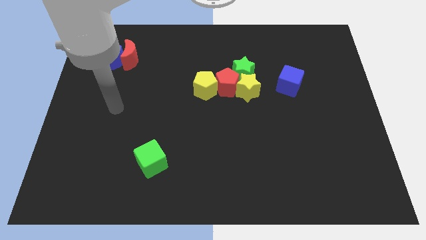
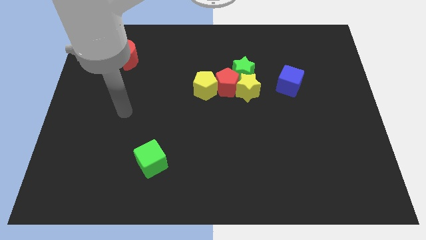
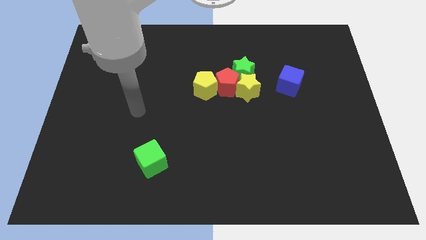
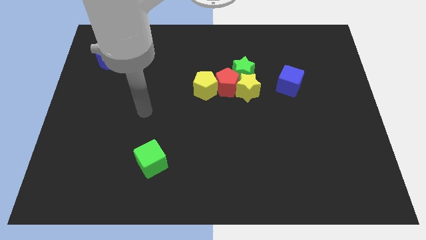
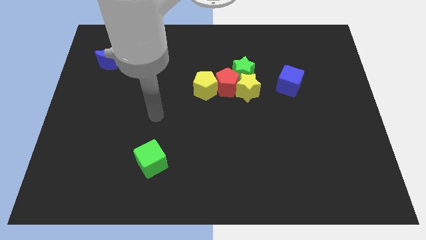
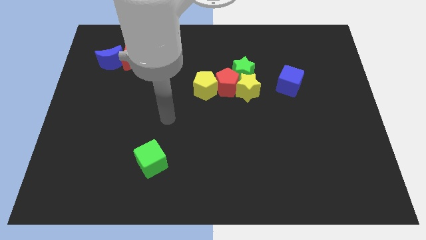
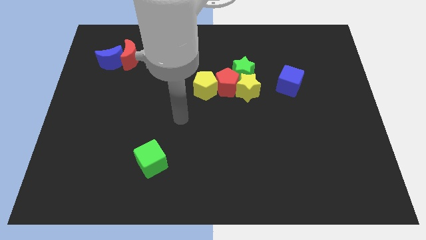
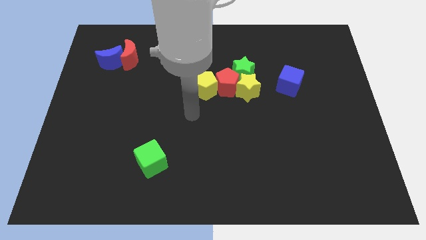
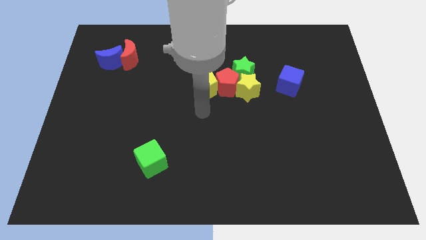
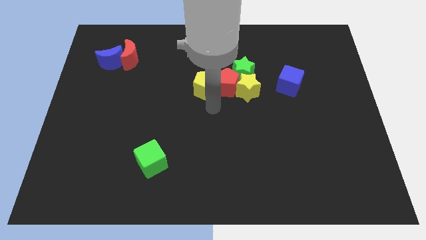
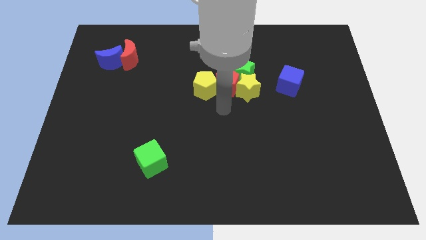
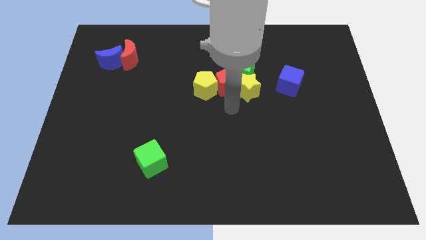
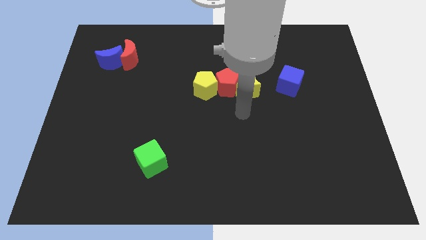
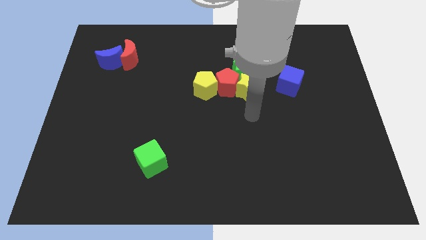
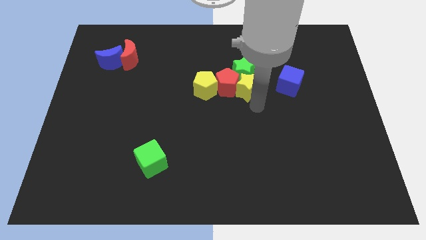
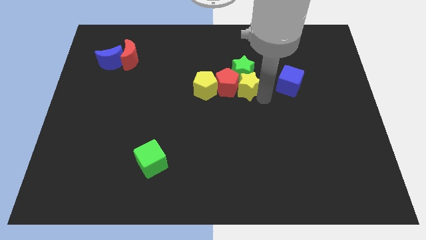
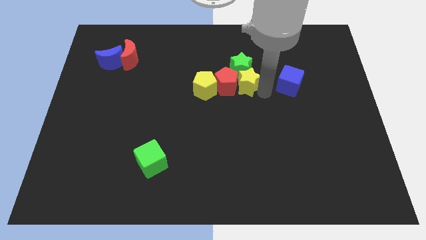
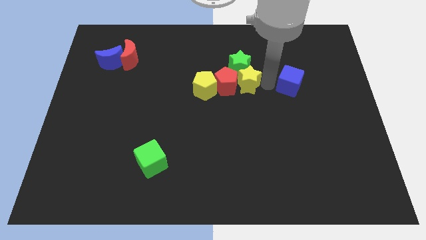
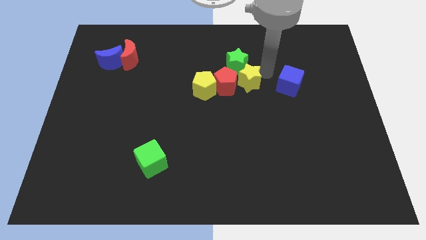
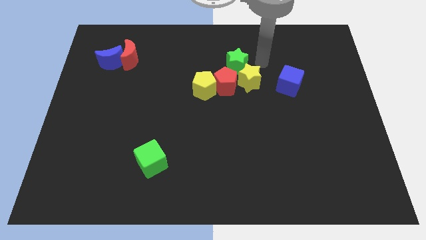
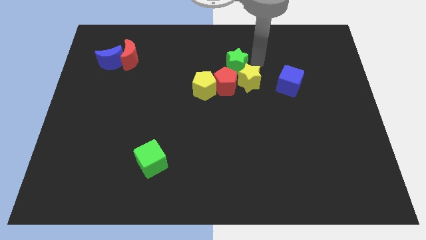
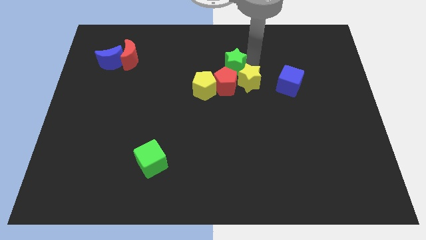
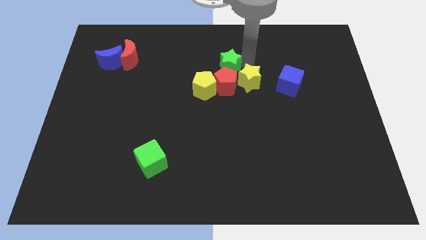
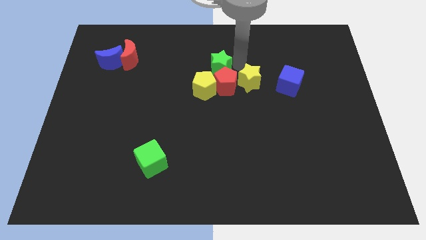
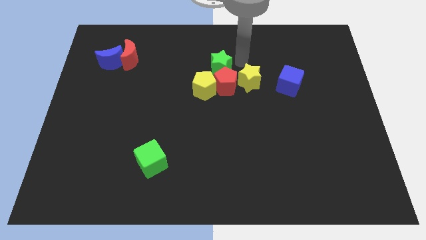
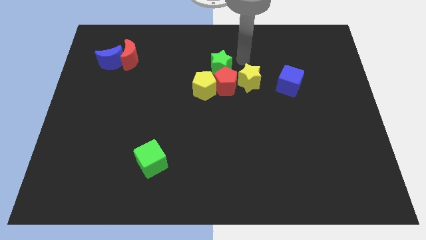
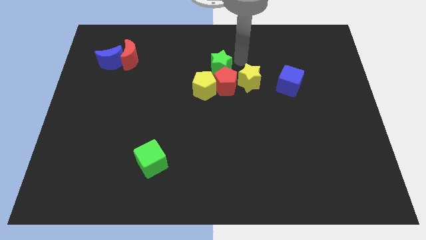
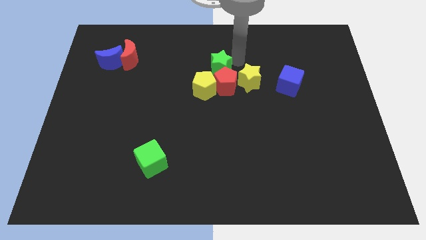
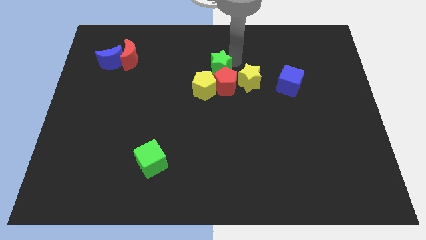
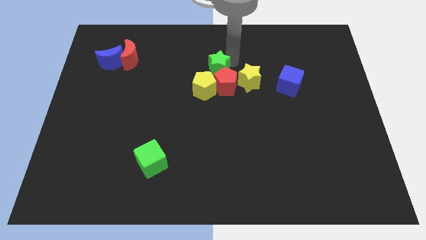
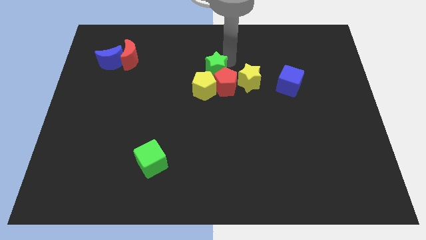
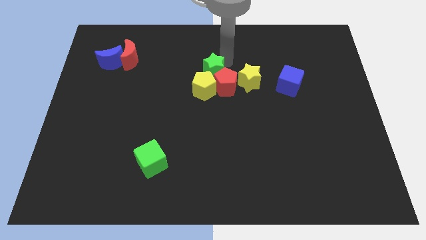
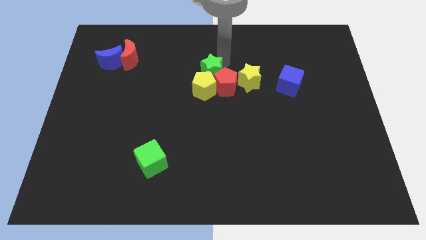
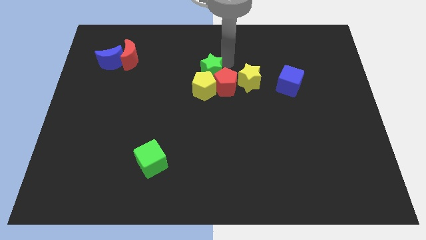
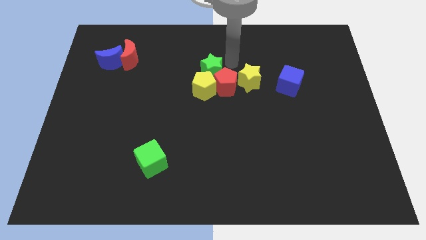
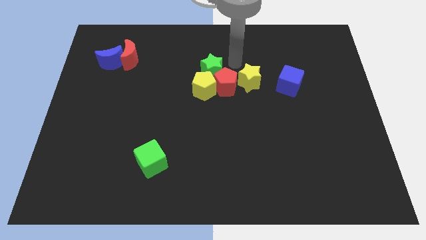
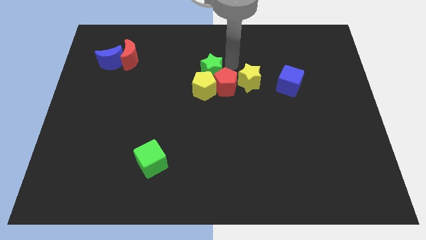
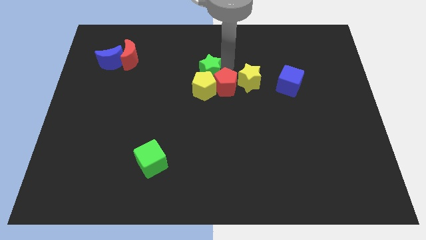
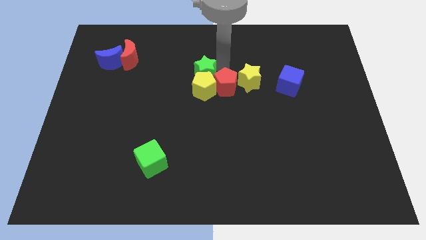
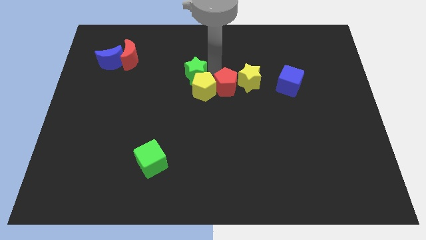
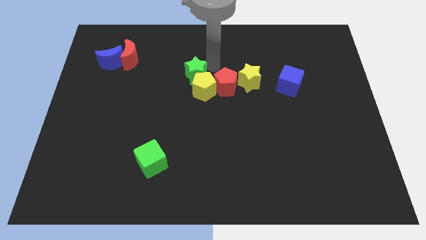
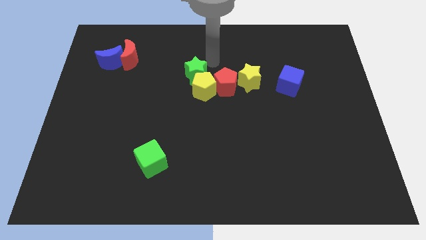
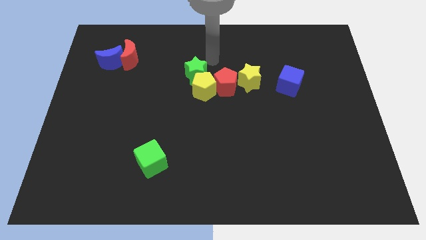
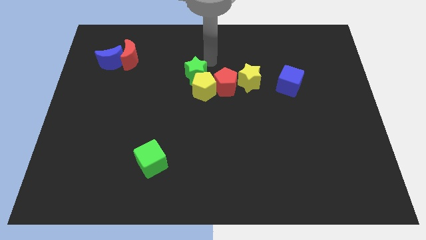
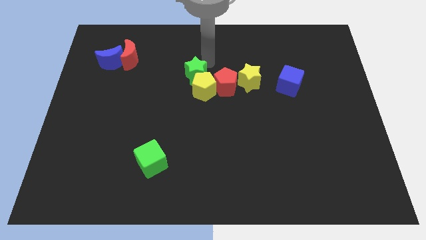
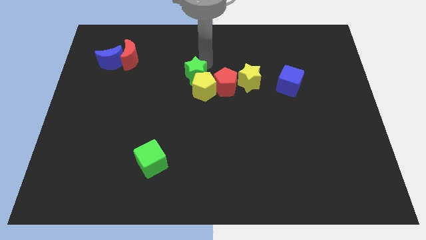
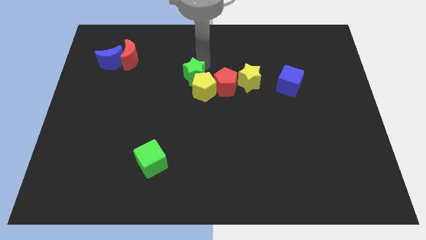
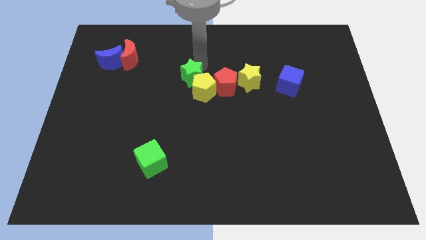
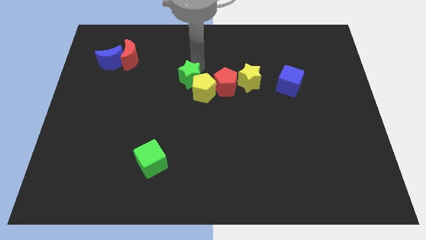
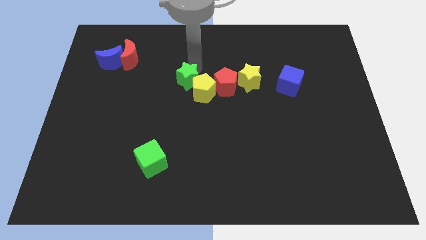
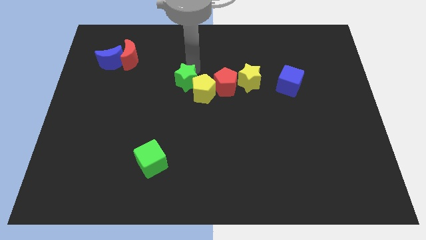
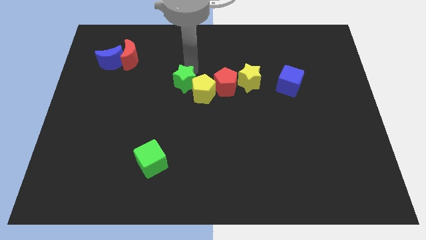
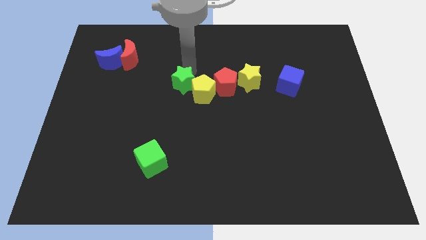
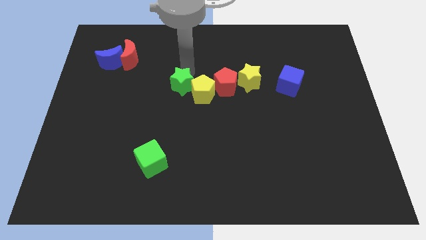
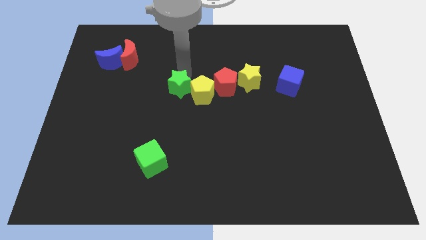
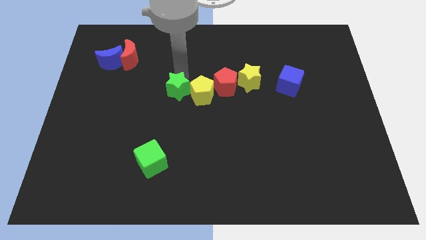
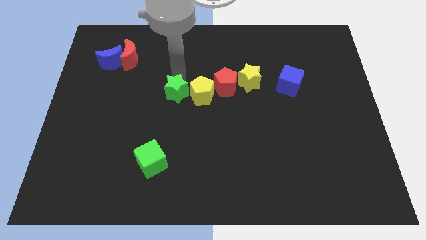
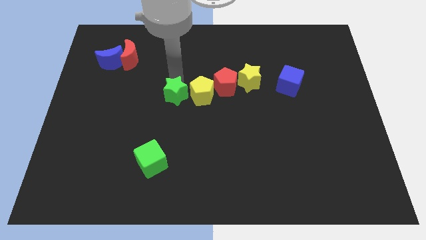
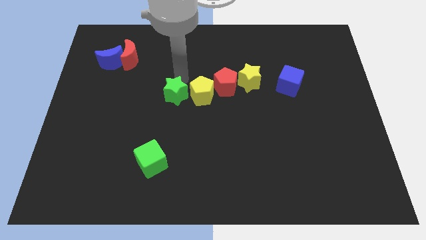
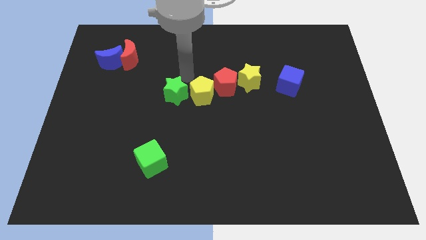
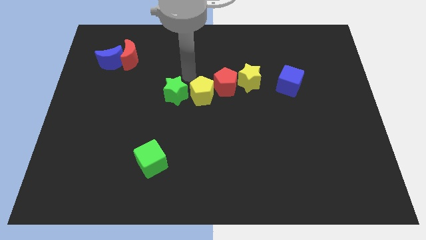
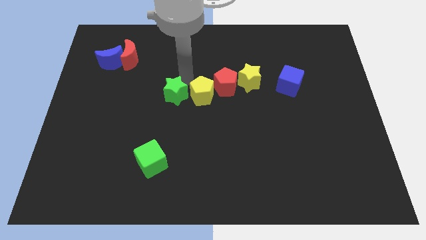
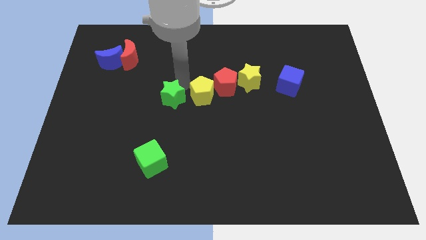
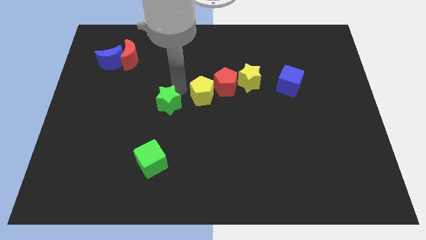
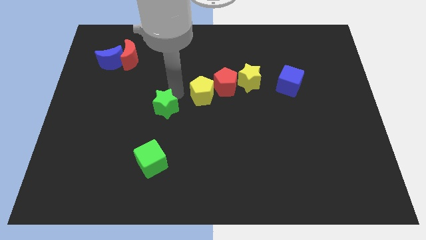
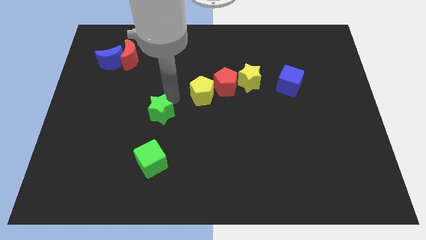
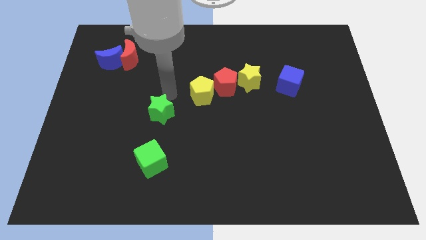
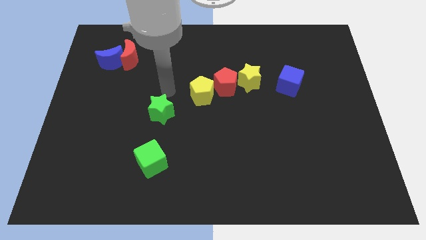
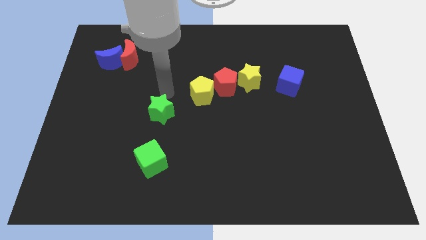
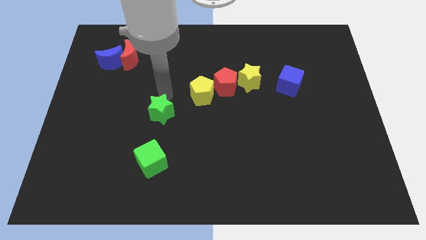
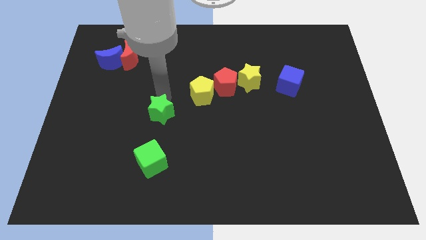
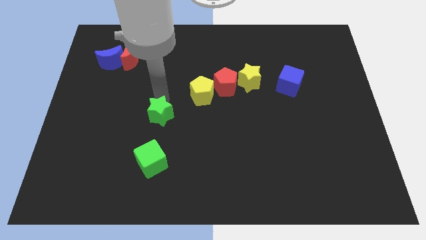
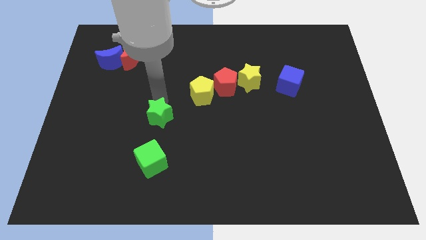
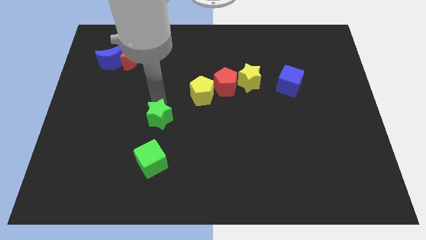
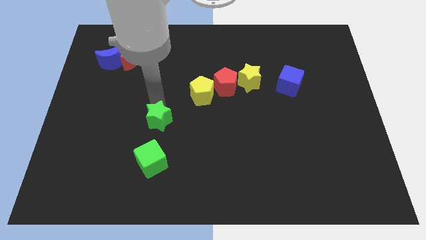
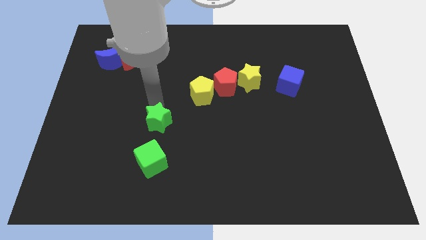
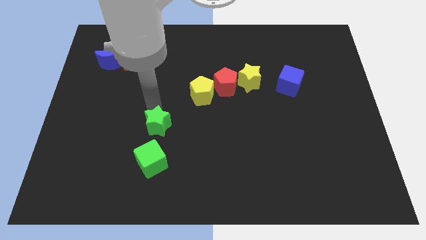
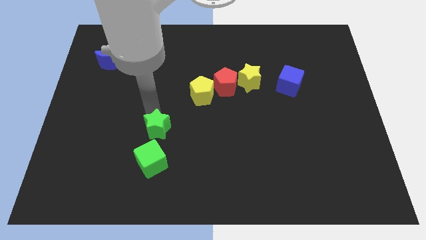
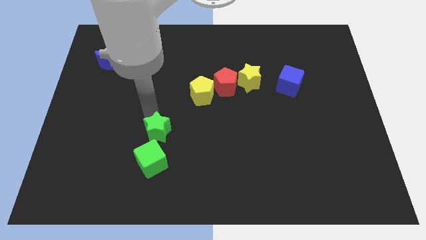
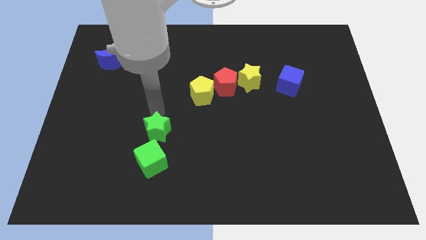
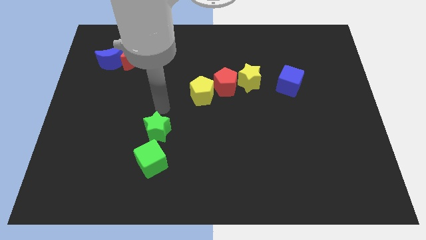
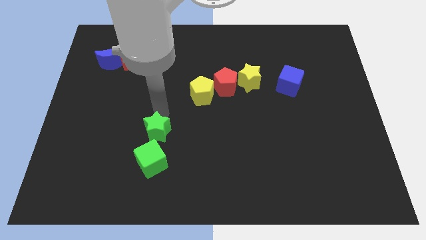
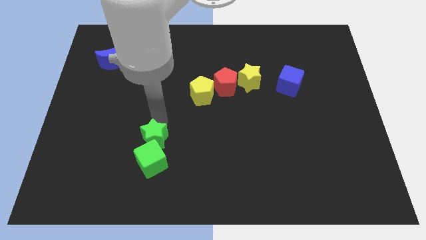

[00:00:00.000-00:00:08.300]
put the green star to the green cube
